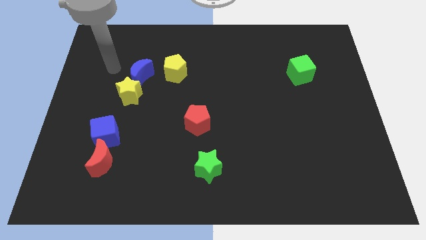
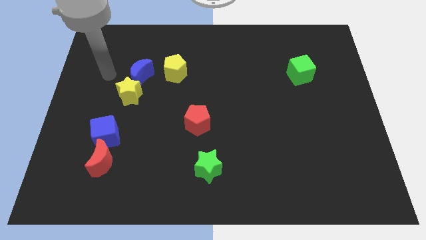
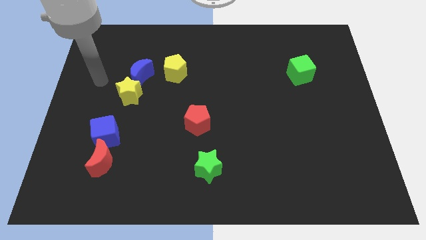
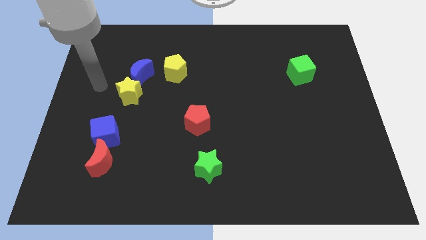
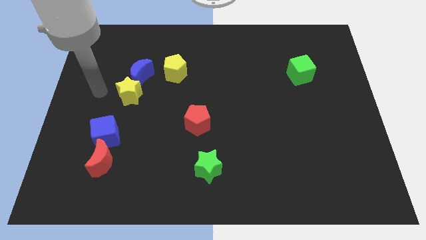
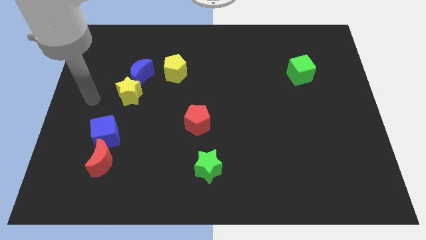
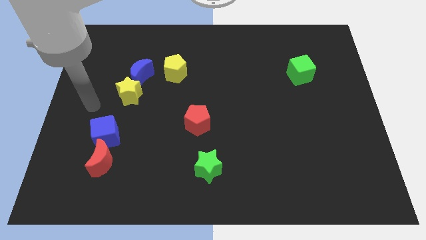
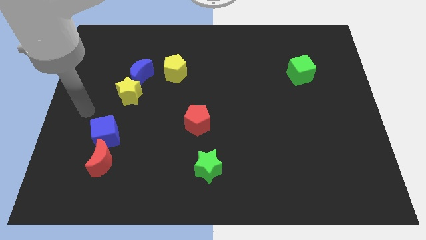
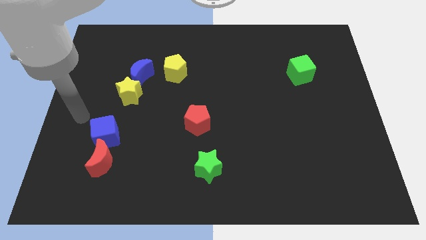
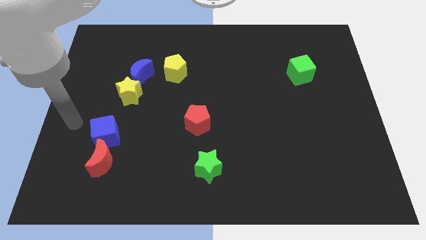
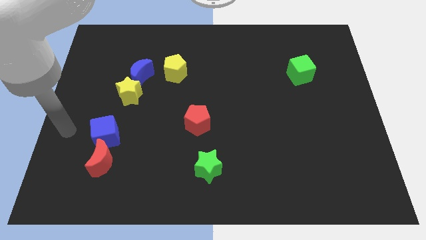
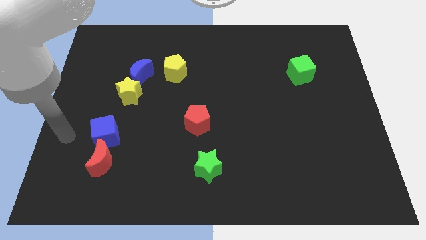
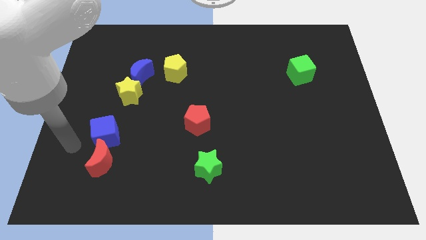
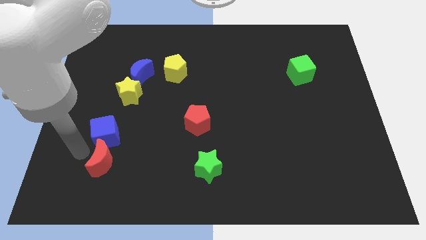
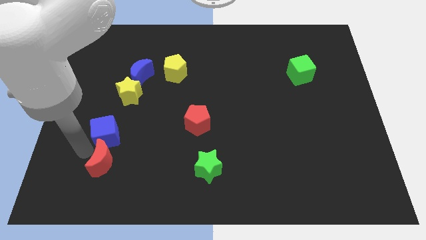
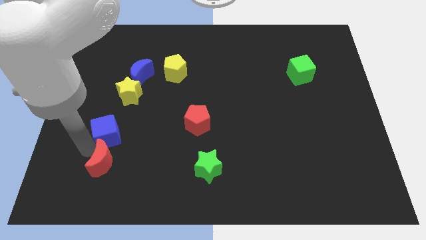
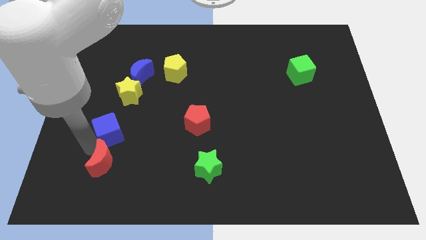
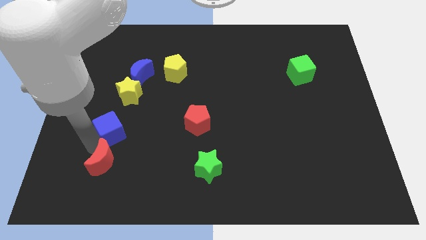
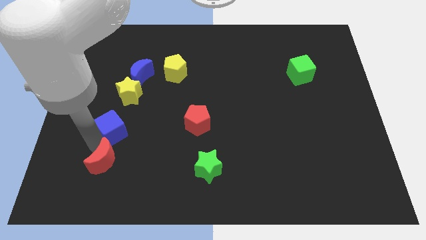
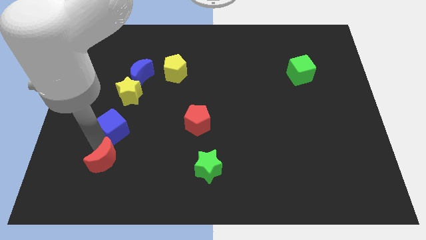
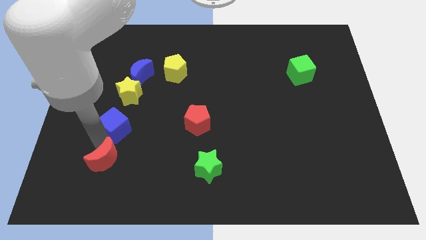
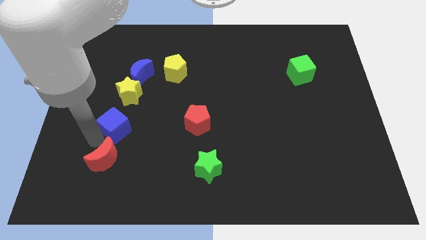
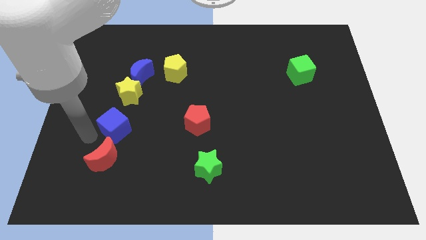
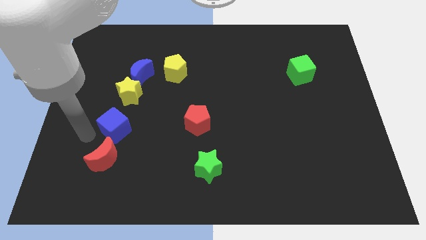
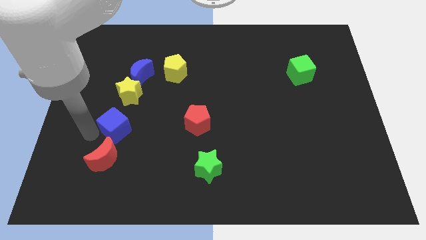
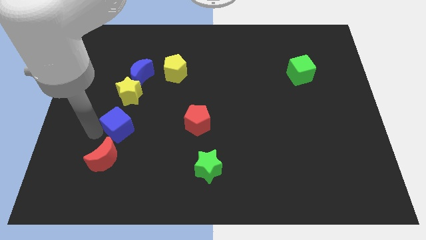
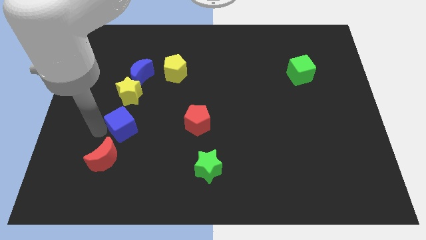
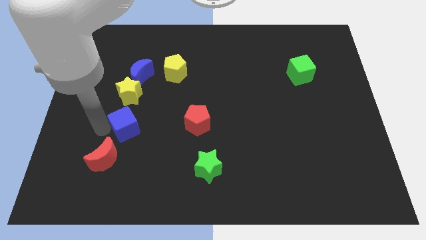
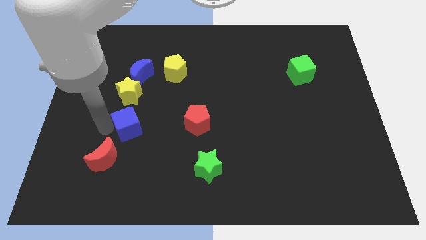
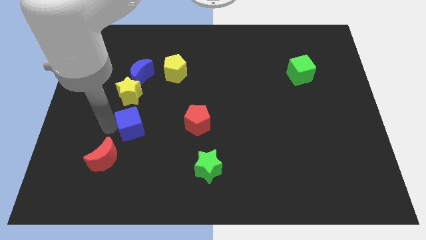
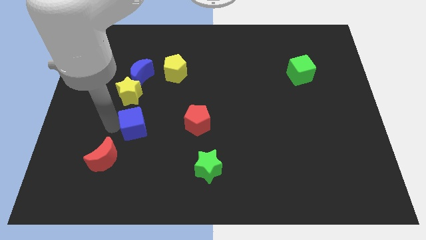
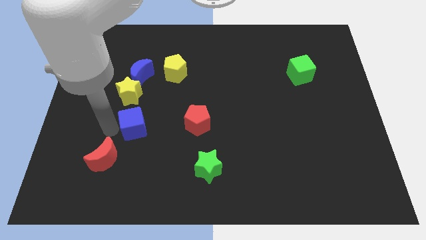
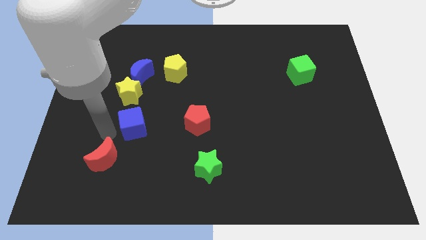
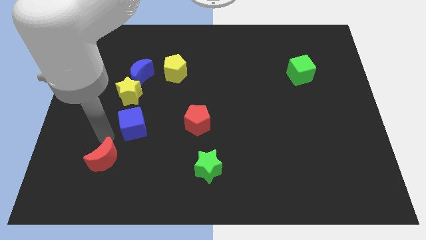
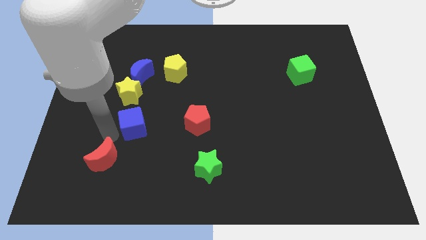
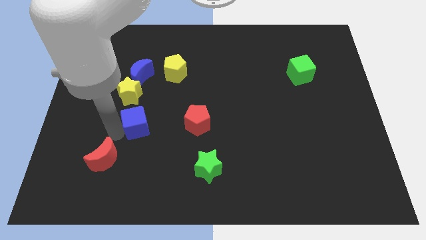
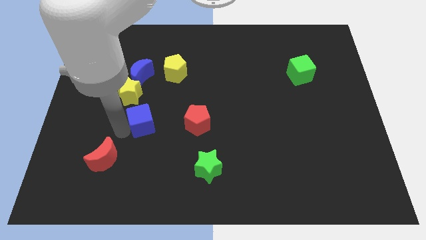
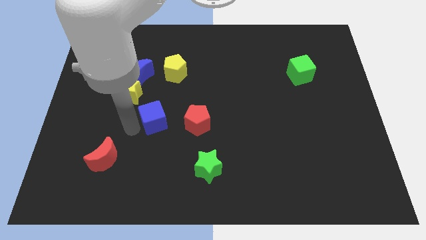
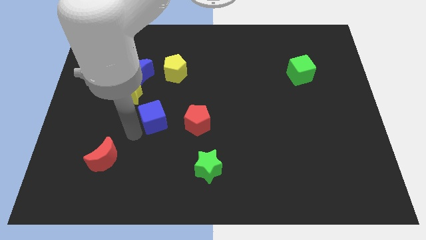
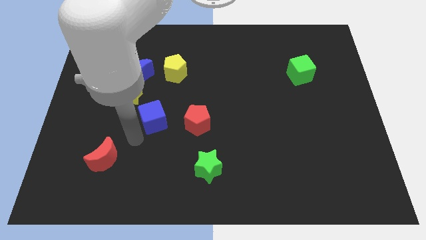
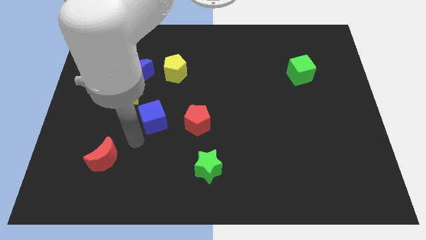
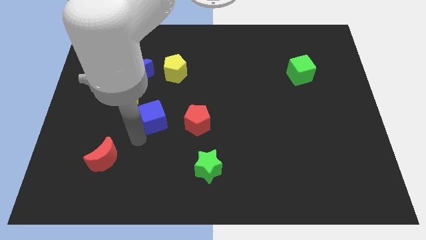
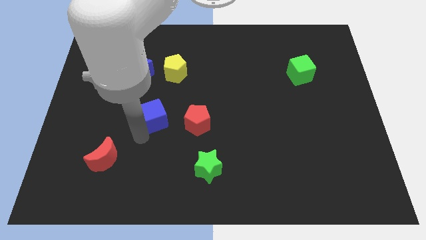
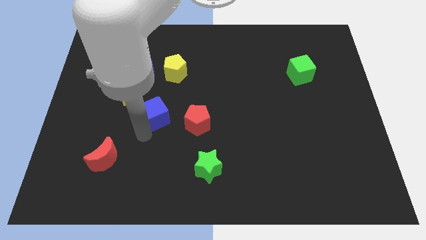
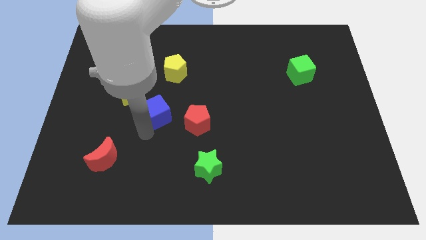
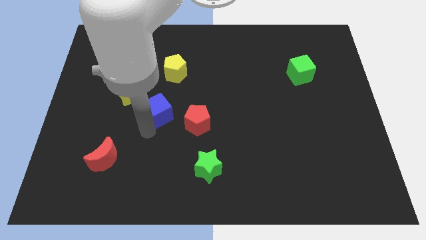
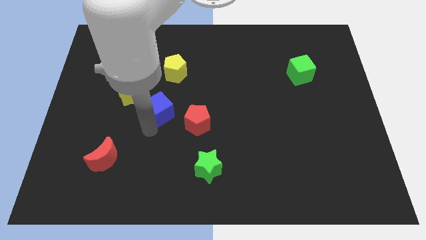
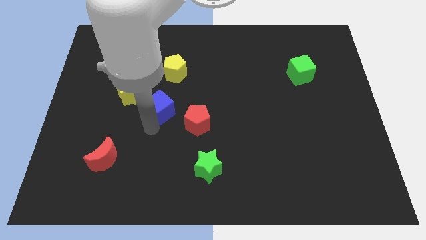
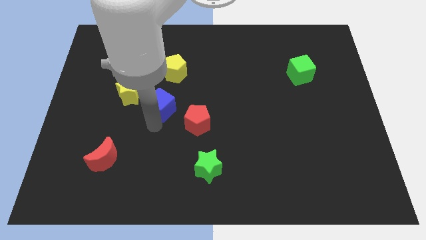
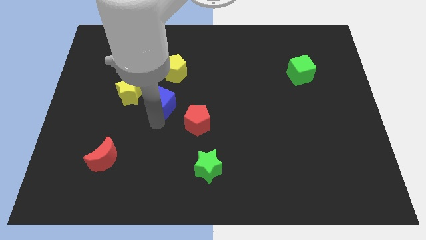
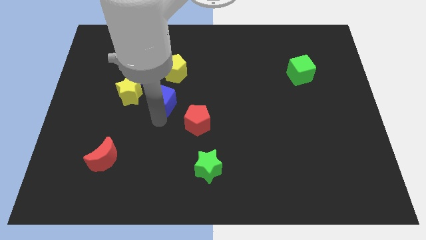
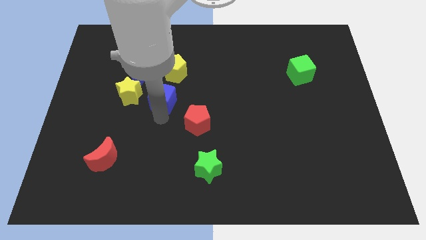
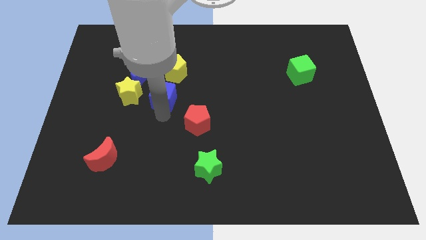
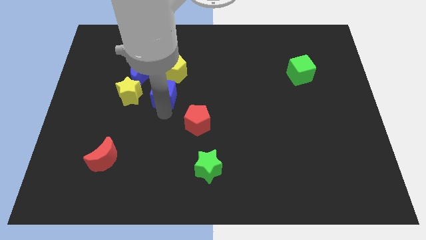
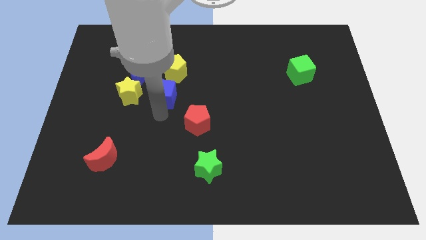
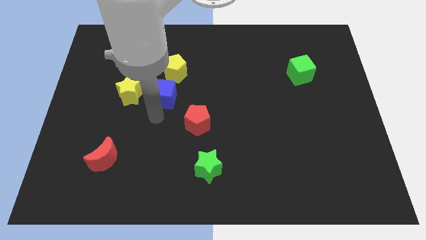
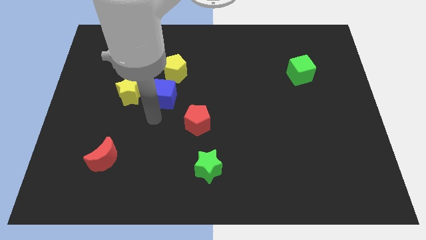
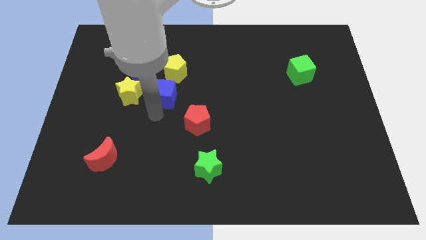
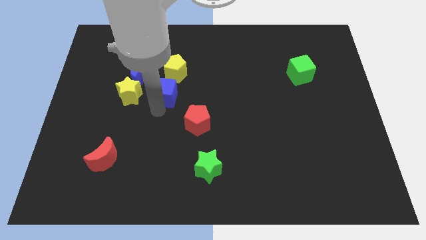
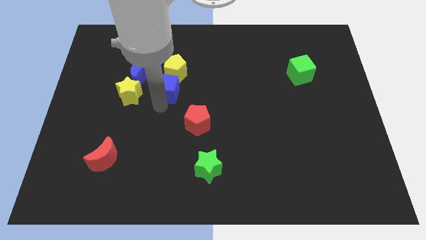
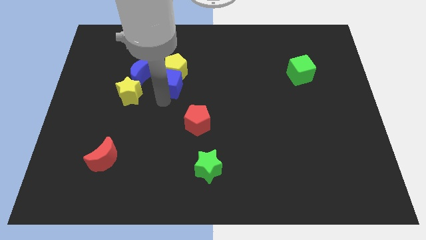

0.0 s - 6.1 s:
push the blue cube towards the yellow pentagon

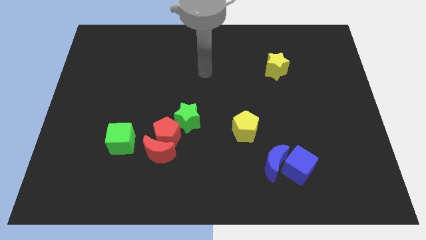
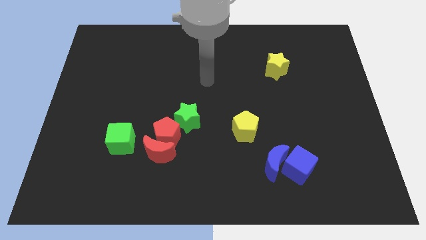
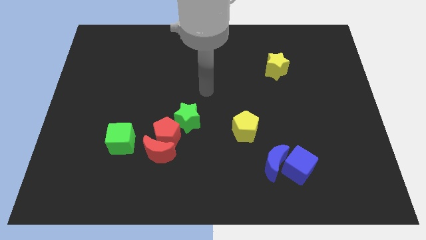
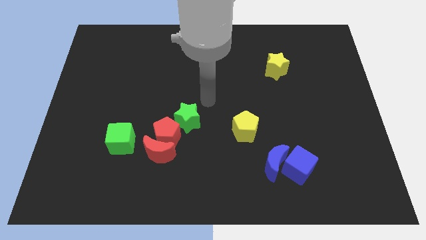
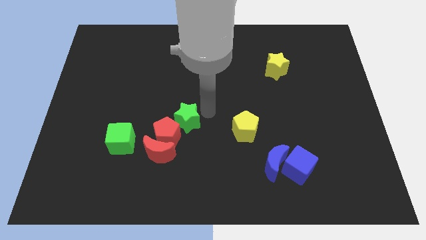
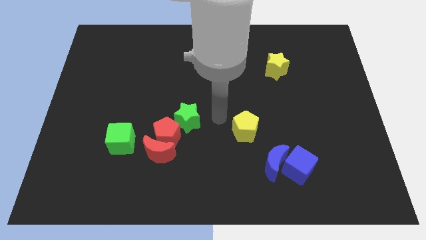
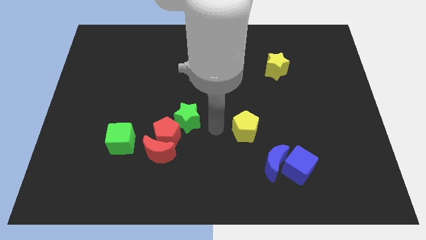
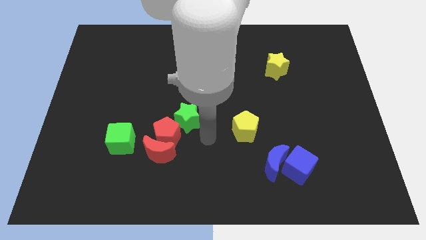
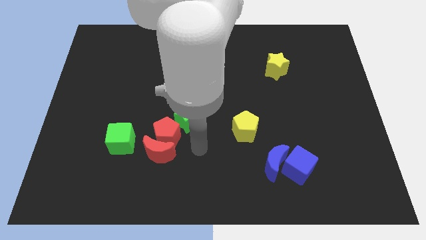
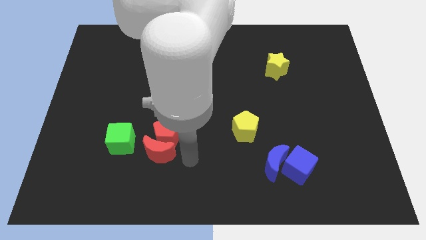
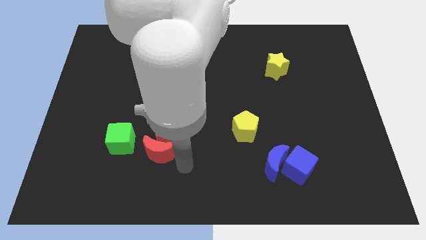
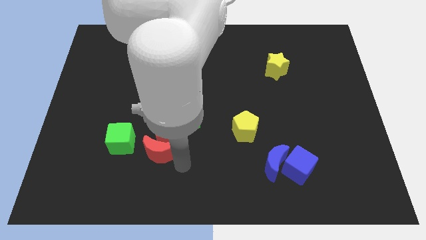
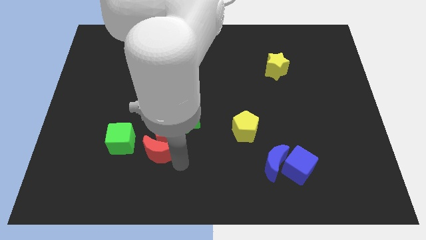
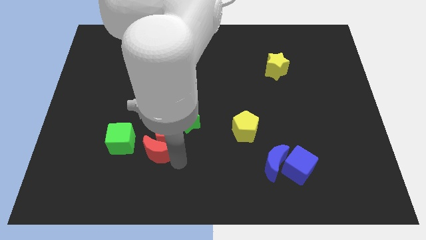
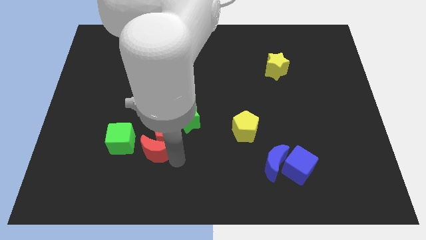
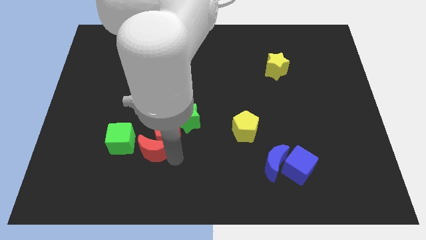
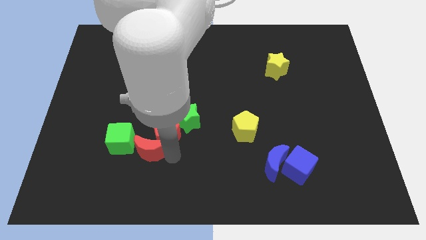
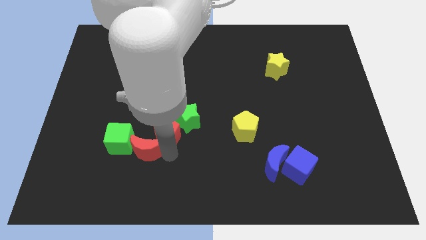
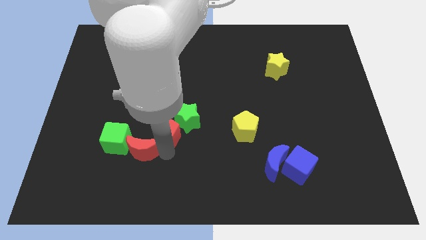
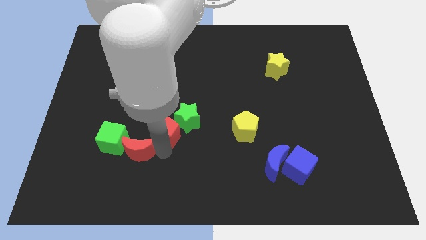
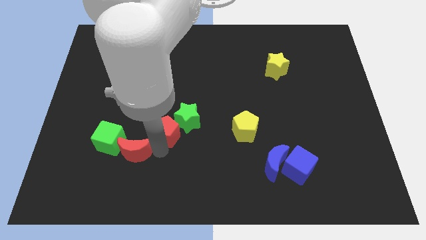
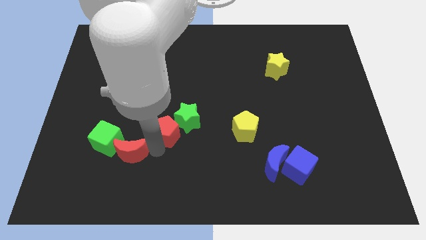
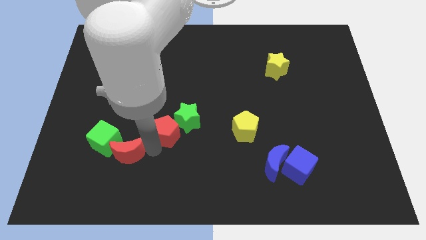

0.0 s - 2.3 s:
push the red moon towards the green cube
